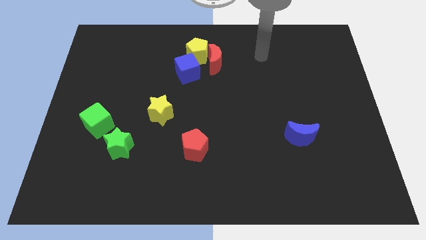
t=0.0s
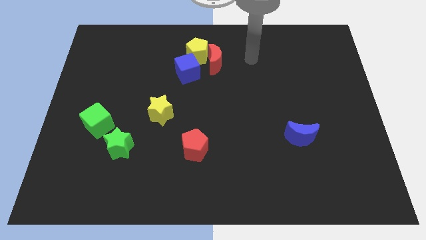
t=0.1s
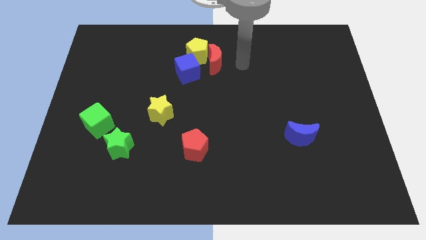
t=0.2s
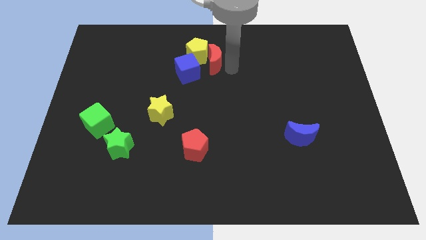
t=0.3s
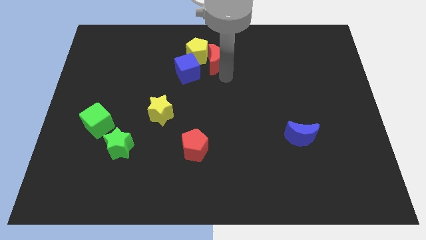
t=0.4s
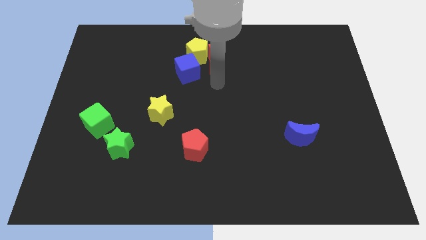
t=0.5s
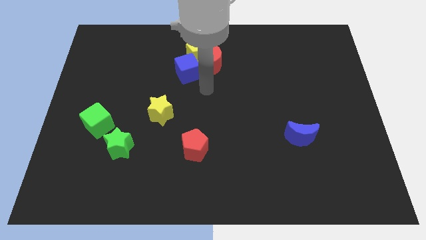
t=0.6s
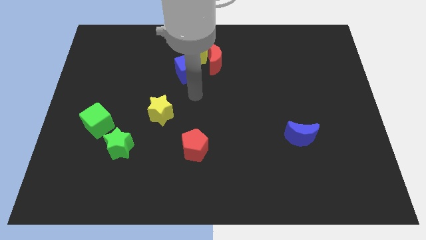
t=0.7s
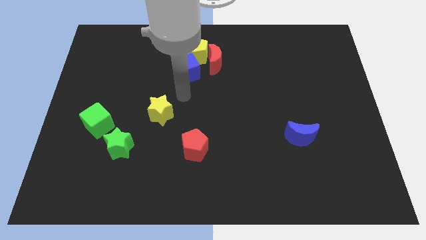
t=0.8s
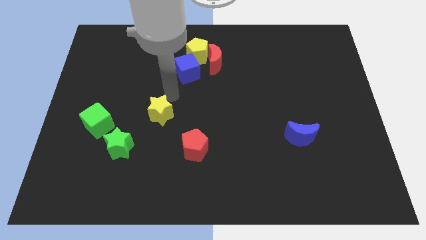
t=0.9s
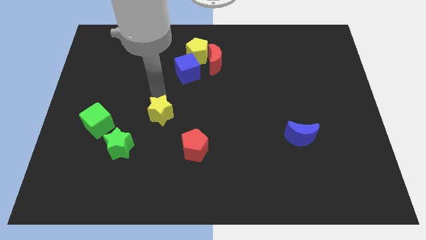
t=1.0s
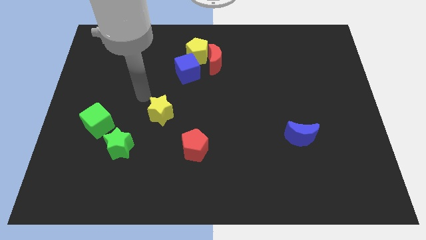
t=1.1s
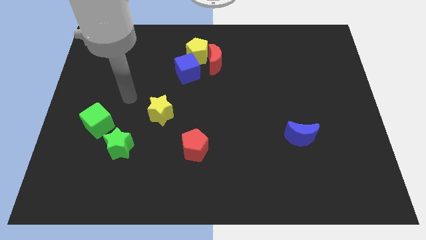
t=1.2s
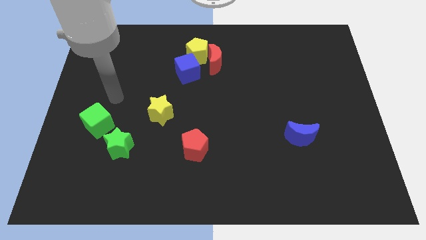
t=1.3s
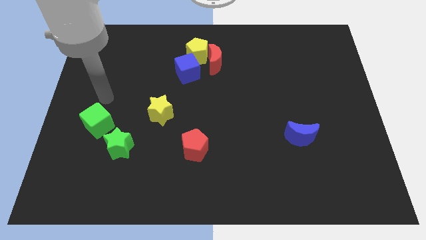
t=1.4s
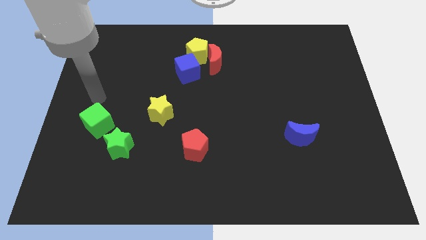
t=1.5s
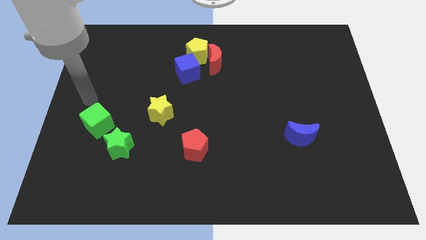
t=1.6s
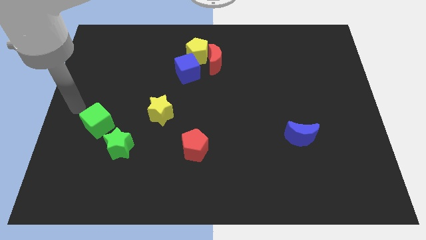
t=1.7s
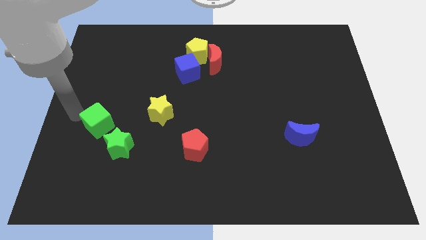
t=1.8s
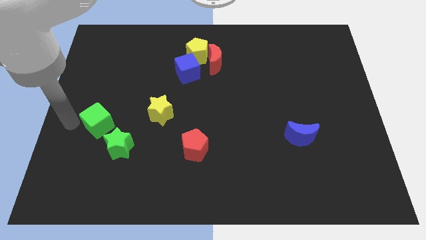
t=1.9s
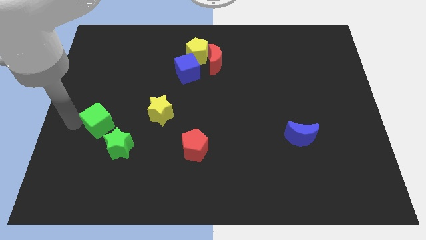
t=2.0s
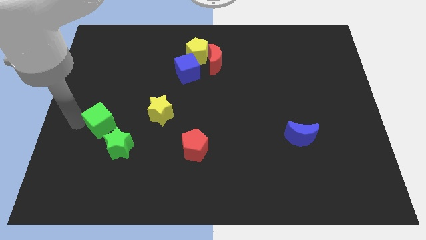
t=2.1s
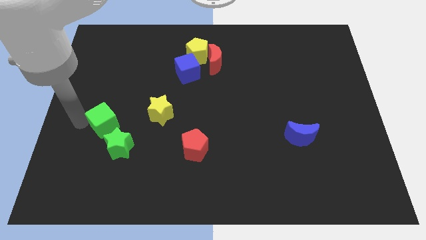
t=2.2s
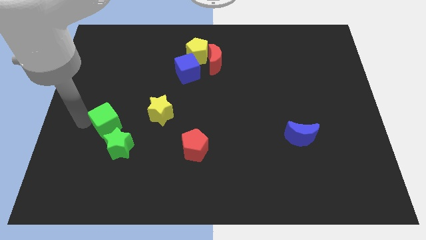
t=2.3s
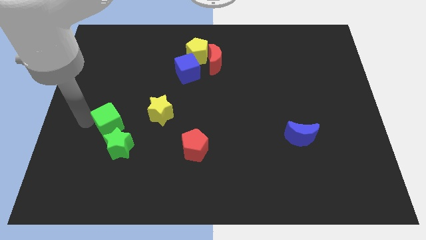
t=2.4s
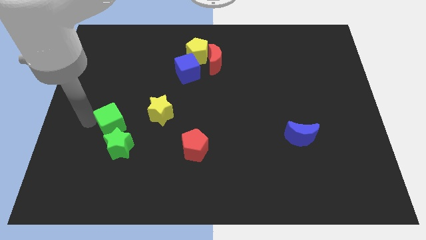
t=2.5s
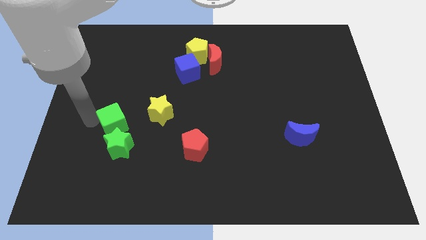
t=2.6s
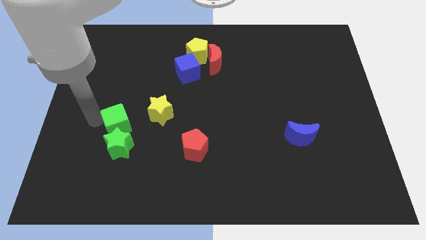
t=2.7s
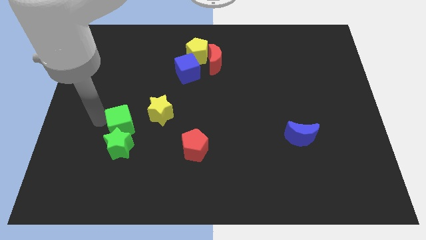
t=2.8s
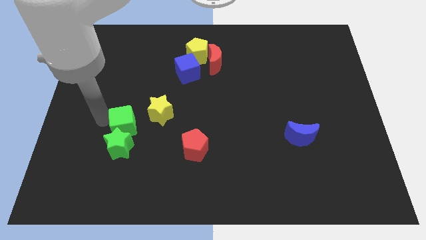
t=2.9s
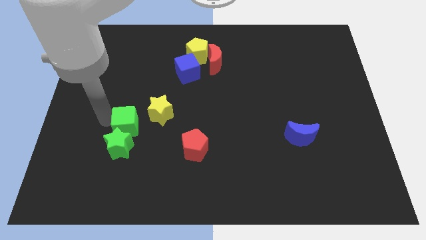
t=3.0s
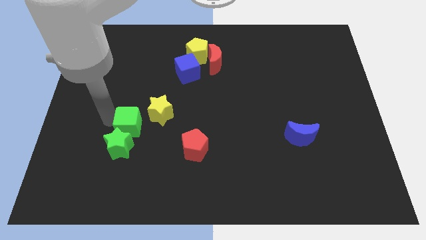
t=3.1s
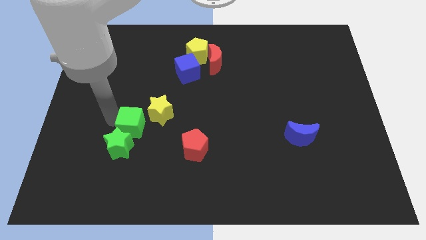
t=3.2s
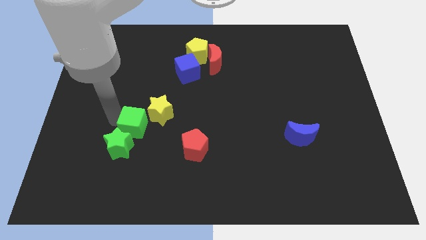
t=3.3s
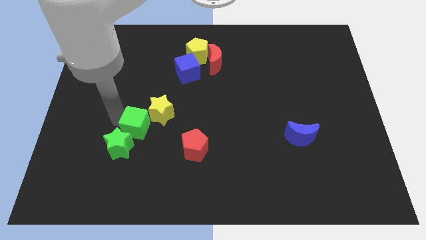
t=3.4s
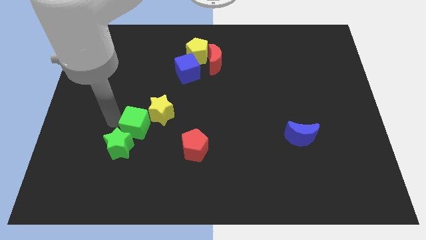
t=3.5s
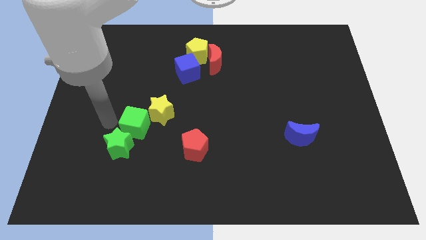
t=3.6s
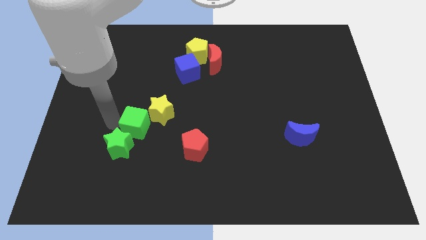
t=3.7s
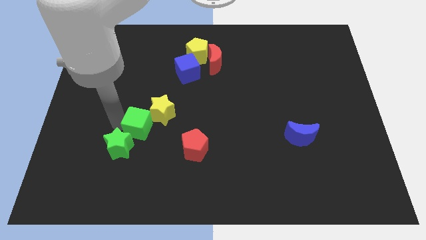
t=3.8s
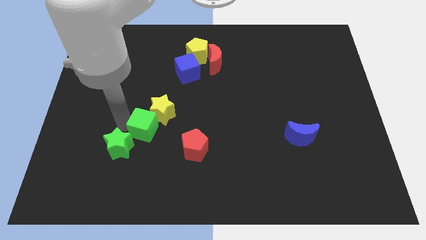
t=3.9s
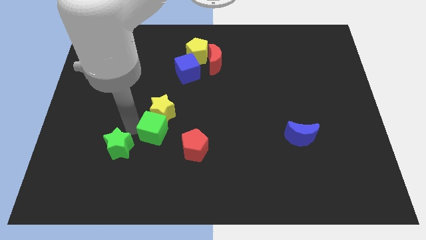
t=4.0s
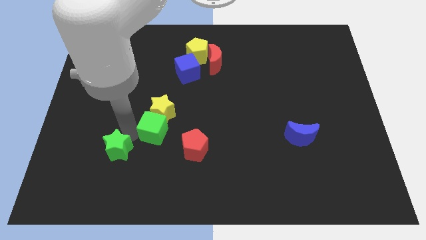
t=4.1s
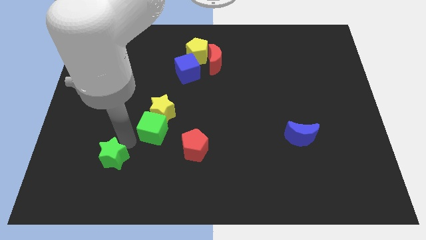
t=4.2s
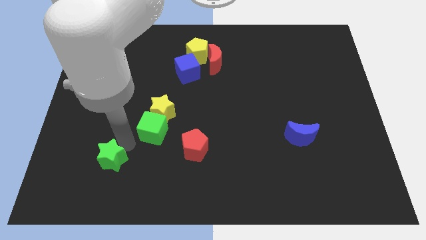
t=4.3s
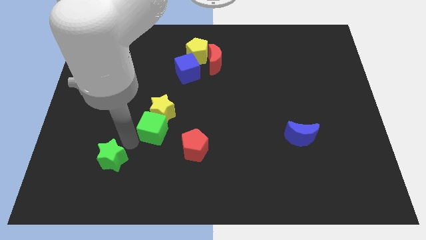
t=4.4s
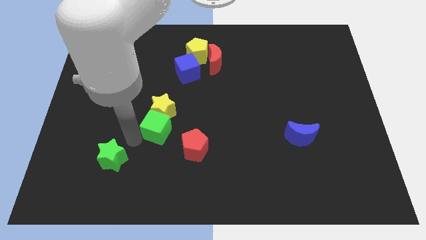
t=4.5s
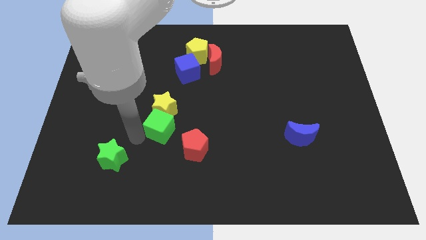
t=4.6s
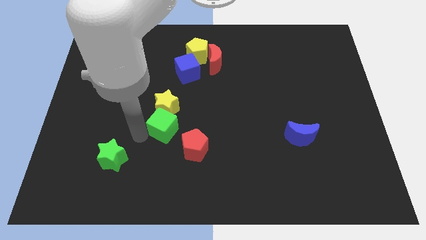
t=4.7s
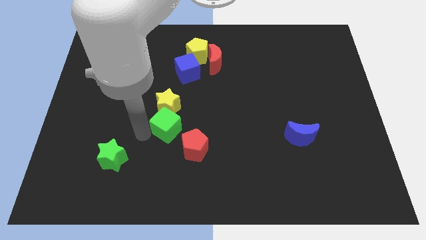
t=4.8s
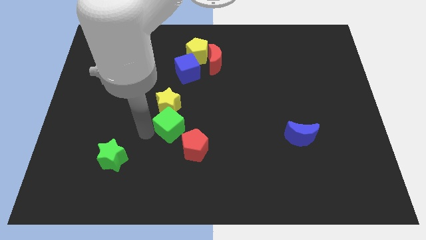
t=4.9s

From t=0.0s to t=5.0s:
push the green cube to the center of the board

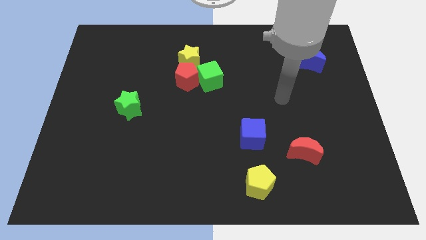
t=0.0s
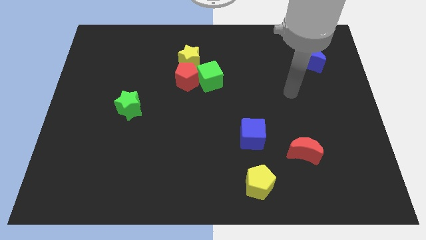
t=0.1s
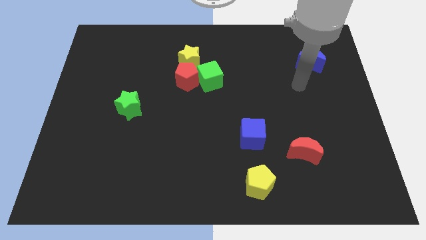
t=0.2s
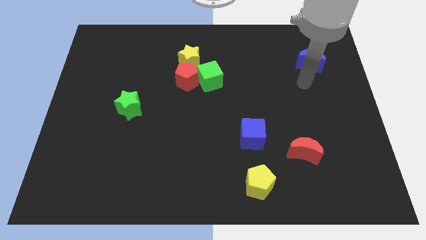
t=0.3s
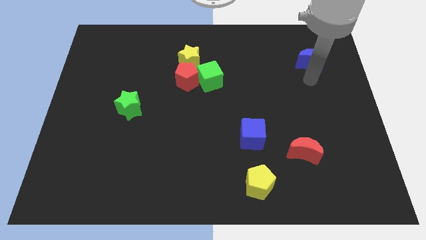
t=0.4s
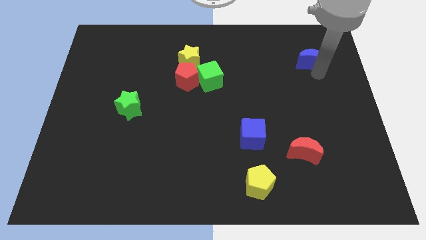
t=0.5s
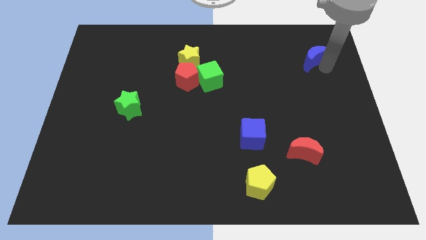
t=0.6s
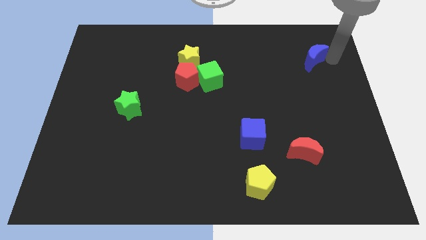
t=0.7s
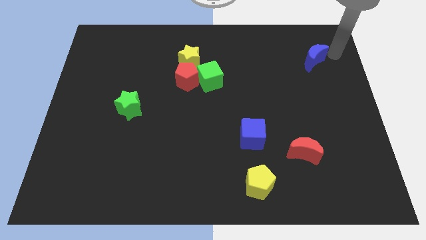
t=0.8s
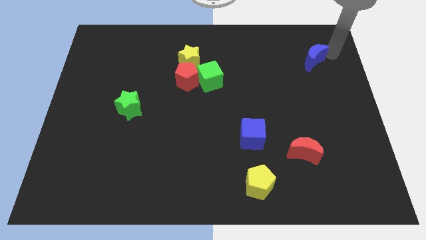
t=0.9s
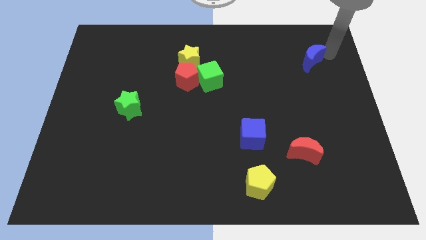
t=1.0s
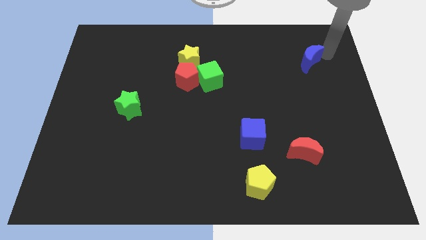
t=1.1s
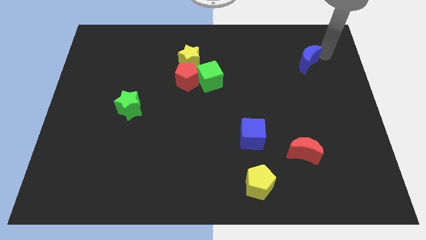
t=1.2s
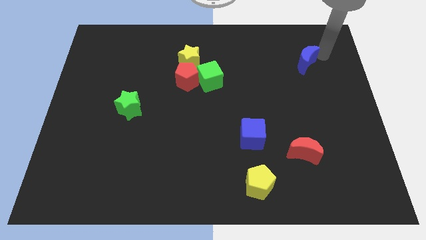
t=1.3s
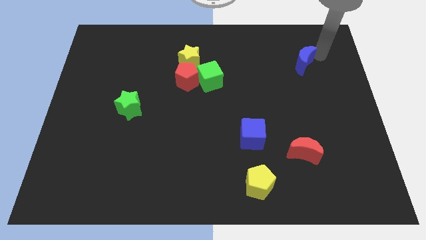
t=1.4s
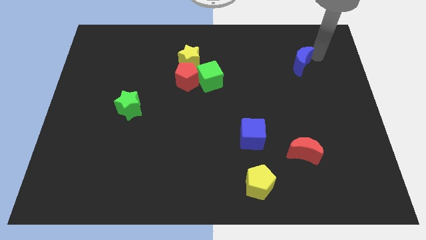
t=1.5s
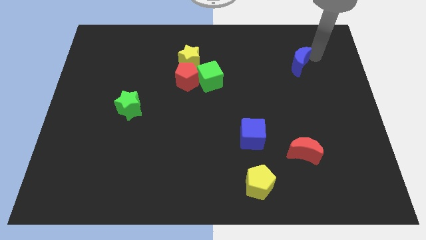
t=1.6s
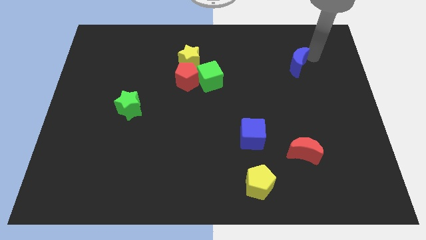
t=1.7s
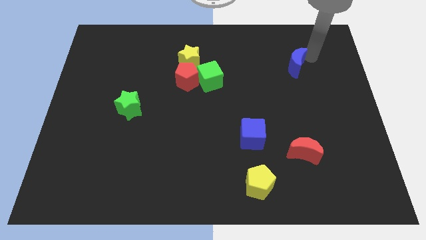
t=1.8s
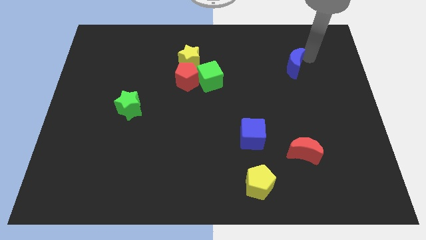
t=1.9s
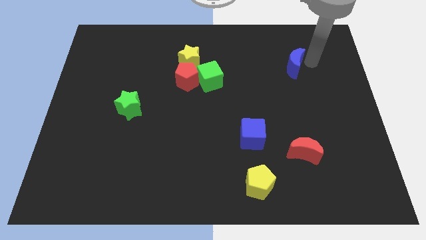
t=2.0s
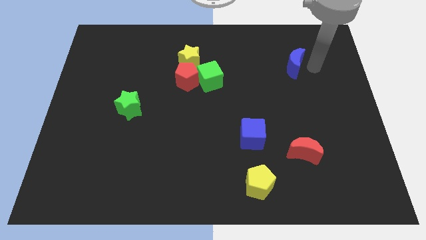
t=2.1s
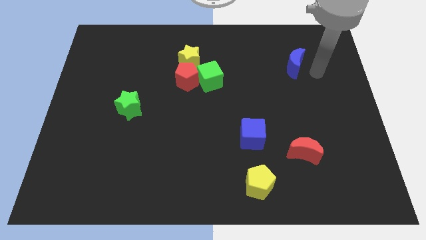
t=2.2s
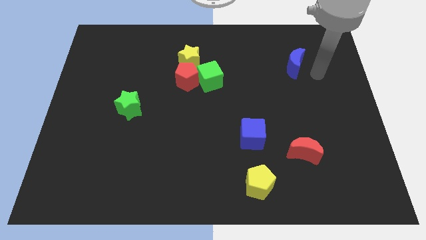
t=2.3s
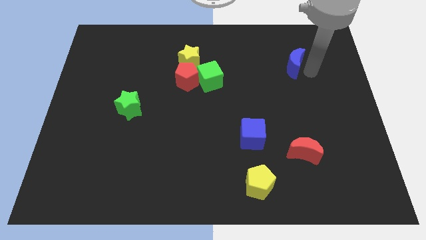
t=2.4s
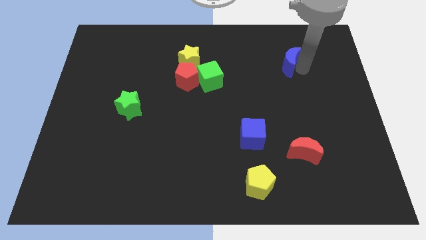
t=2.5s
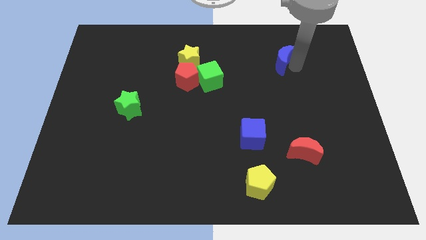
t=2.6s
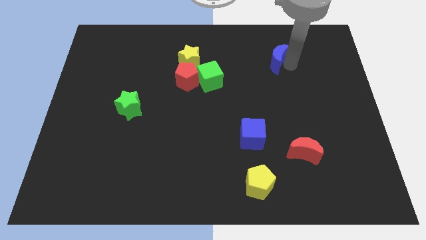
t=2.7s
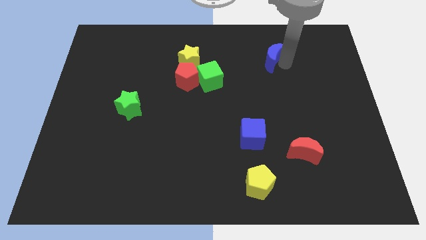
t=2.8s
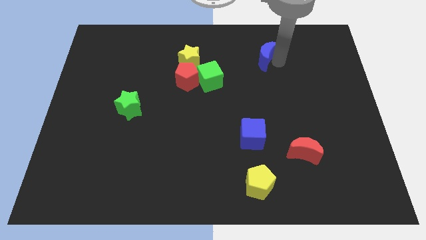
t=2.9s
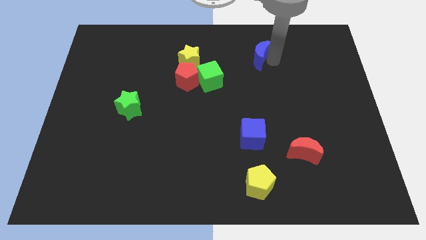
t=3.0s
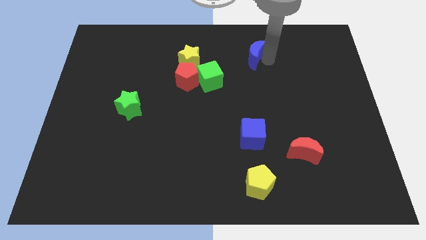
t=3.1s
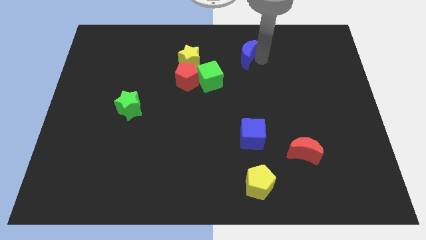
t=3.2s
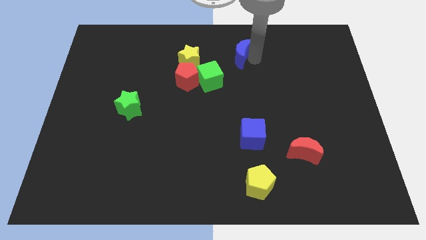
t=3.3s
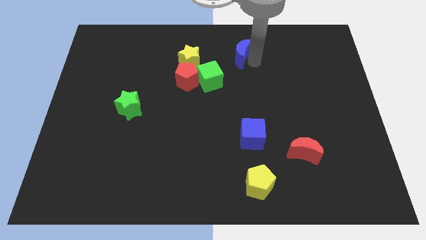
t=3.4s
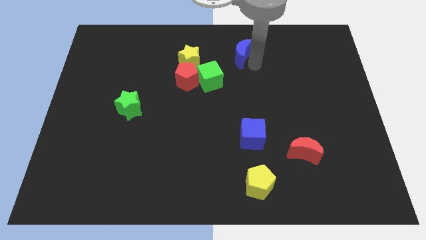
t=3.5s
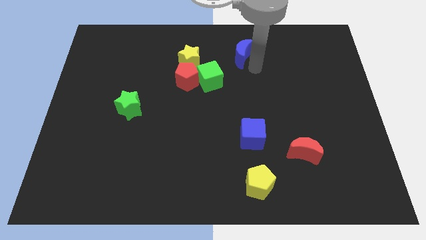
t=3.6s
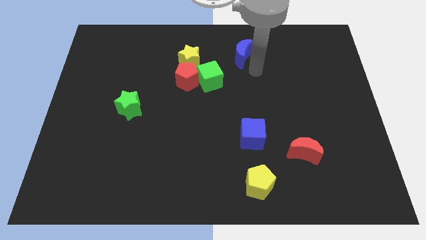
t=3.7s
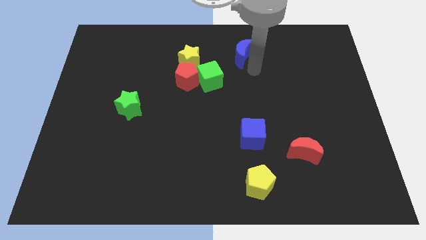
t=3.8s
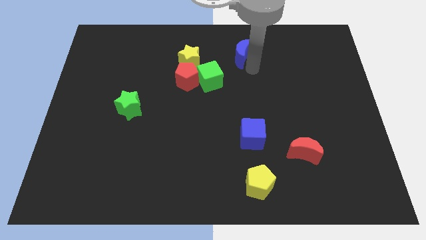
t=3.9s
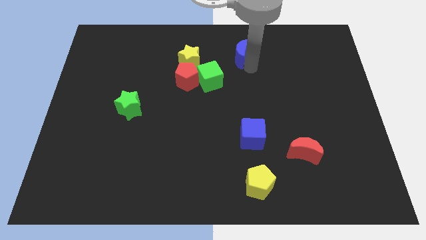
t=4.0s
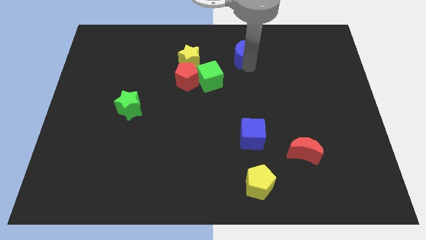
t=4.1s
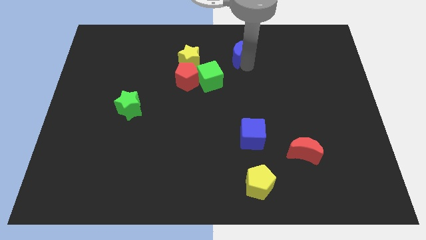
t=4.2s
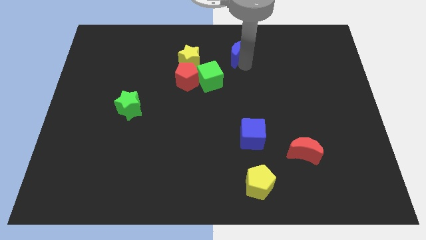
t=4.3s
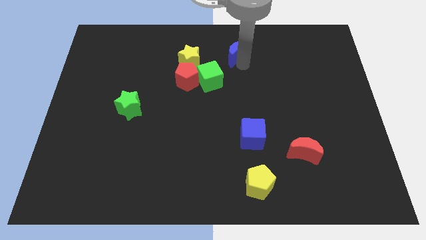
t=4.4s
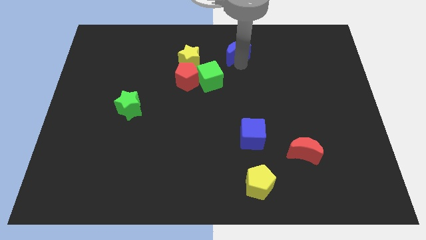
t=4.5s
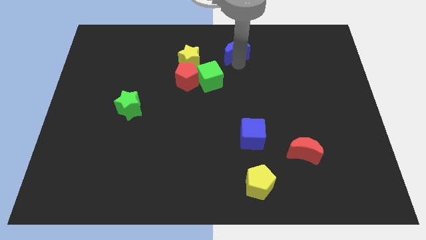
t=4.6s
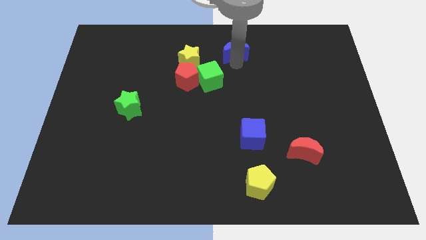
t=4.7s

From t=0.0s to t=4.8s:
slide the blue moon to the towards your base
